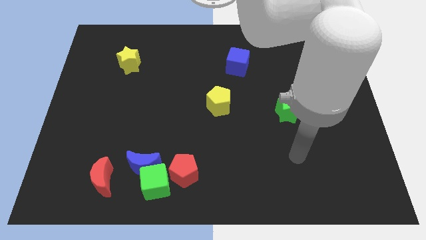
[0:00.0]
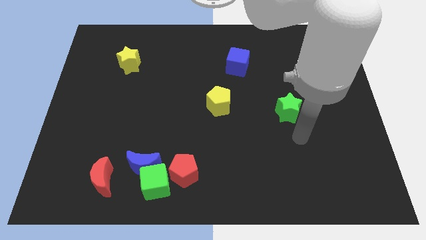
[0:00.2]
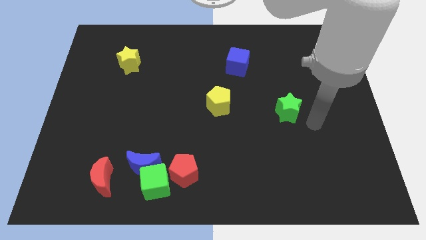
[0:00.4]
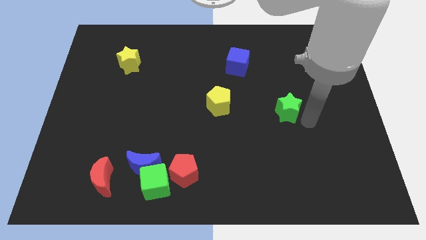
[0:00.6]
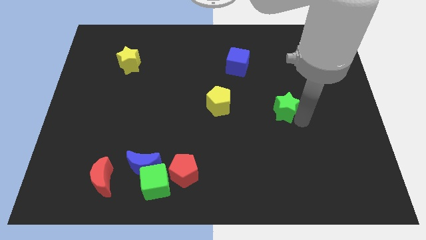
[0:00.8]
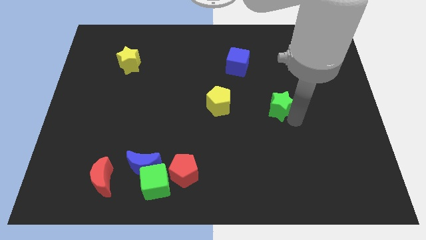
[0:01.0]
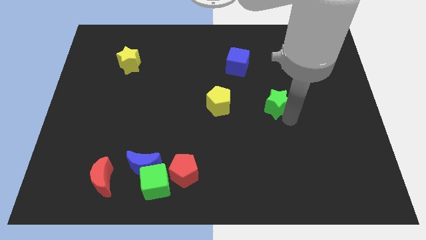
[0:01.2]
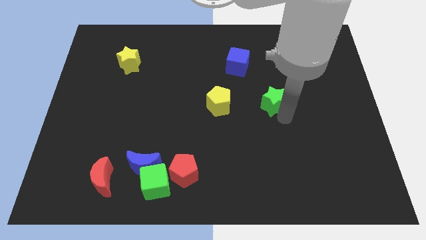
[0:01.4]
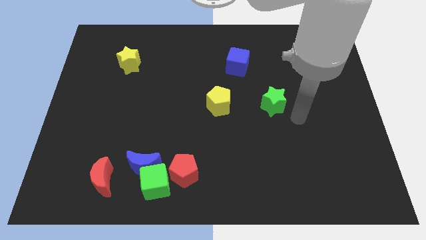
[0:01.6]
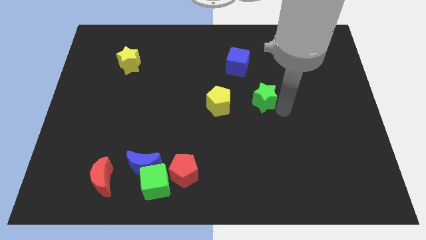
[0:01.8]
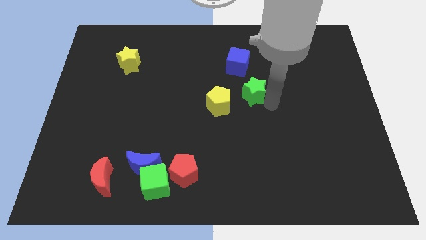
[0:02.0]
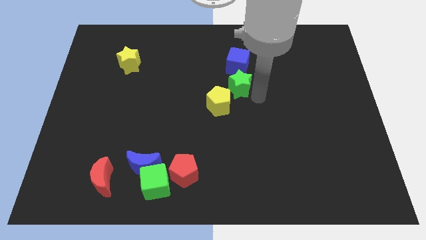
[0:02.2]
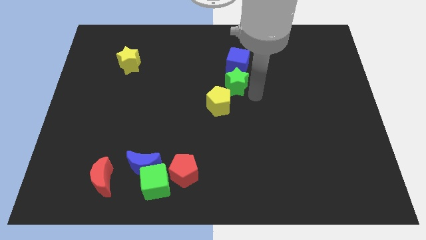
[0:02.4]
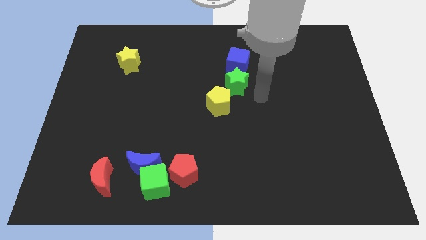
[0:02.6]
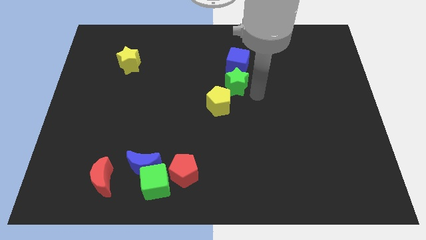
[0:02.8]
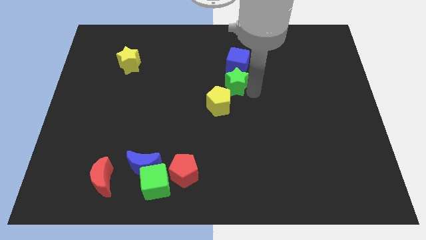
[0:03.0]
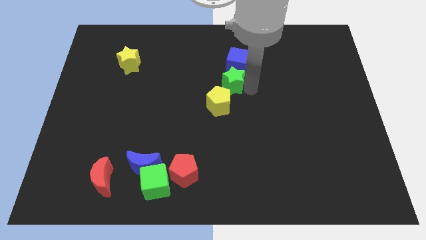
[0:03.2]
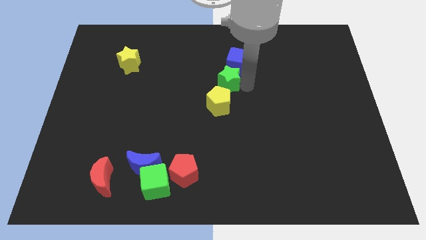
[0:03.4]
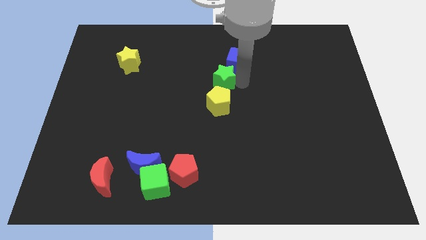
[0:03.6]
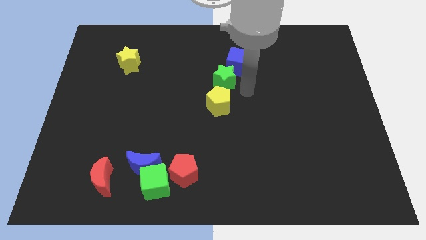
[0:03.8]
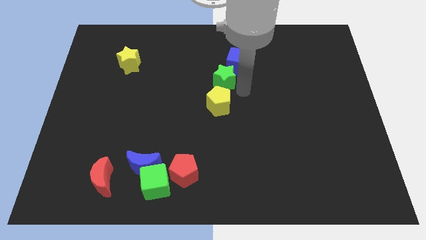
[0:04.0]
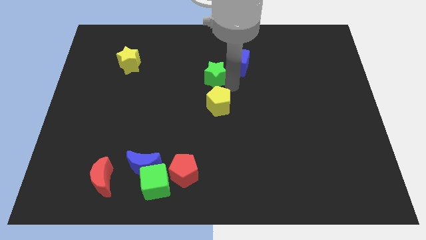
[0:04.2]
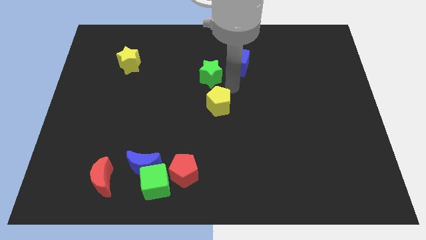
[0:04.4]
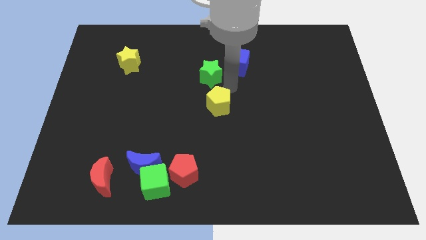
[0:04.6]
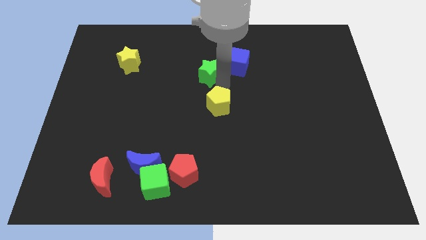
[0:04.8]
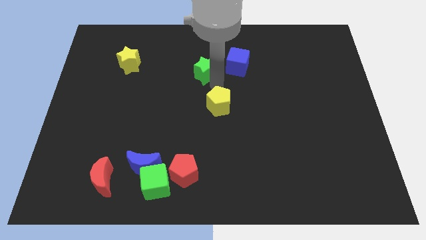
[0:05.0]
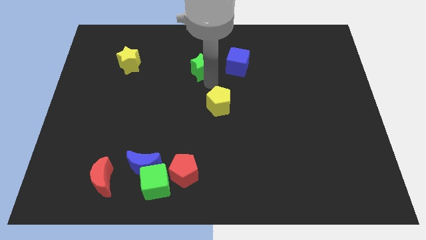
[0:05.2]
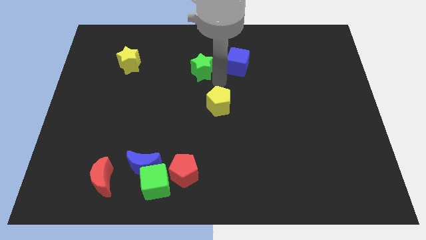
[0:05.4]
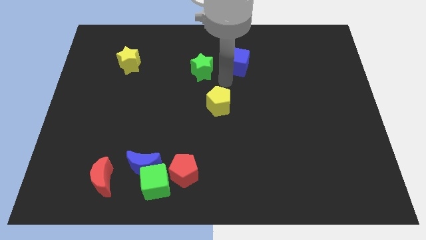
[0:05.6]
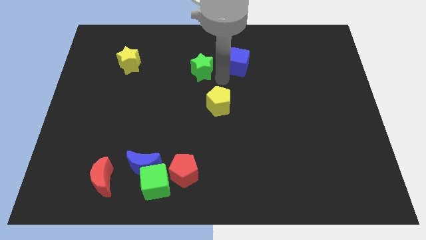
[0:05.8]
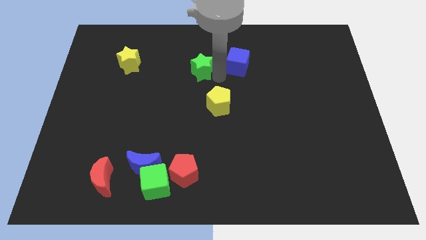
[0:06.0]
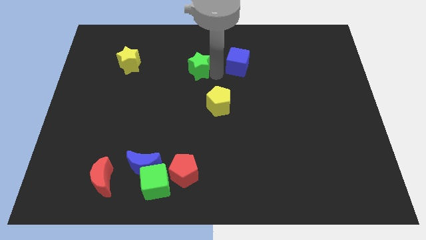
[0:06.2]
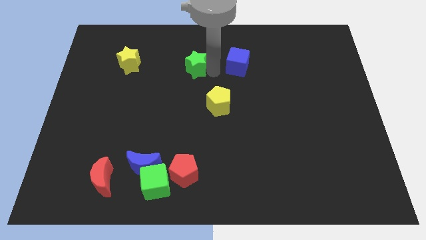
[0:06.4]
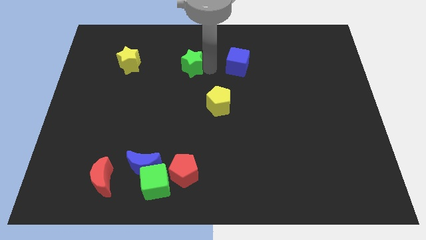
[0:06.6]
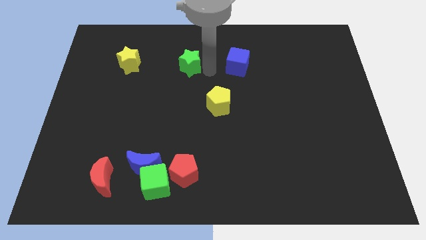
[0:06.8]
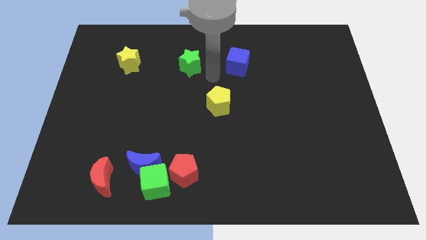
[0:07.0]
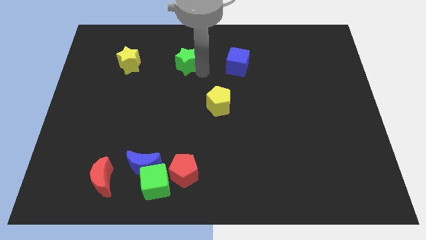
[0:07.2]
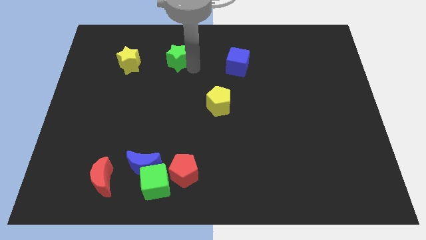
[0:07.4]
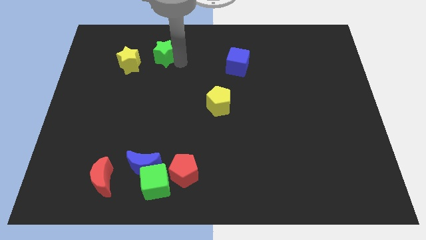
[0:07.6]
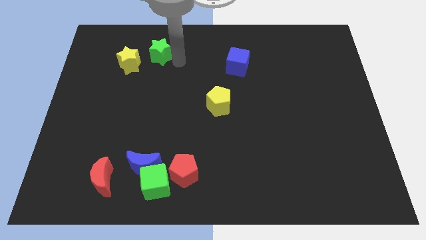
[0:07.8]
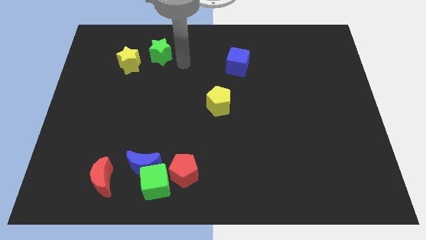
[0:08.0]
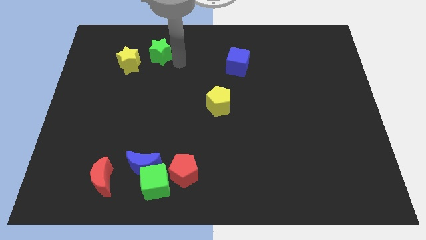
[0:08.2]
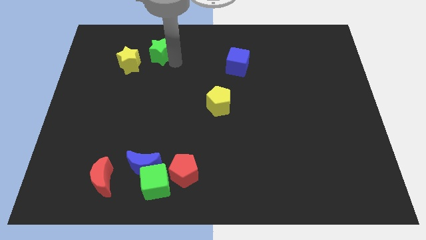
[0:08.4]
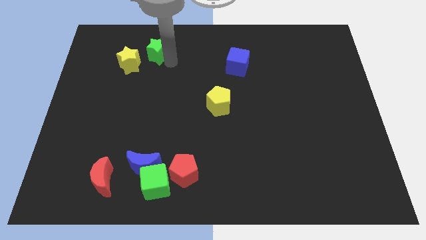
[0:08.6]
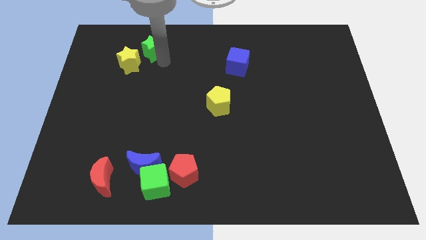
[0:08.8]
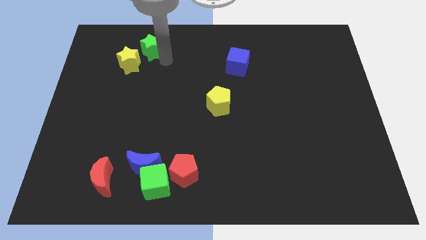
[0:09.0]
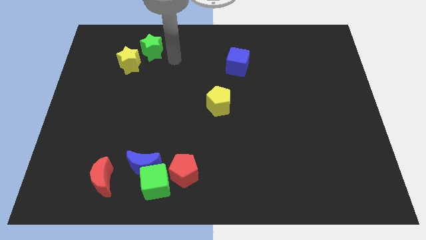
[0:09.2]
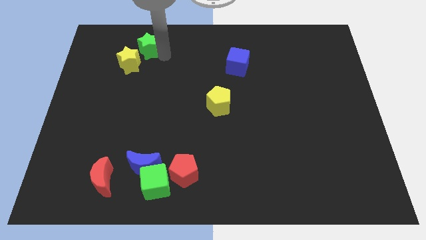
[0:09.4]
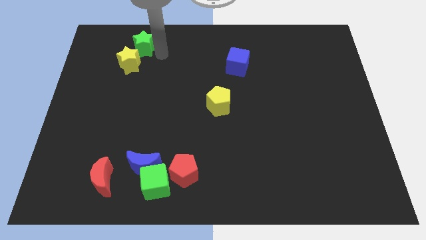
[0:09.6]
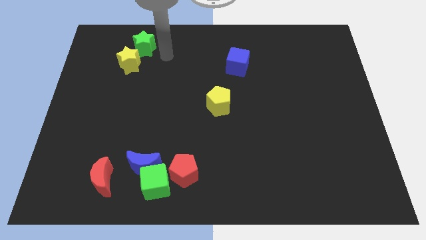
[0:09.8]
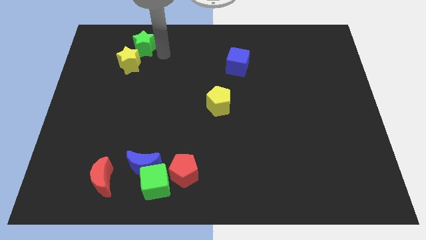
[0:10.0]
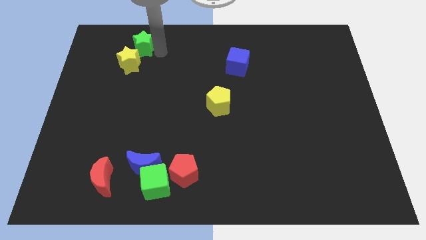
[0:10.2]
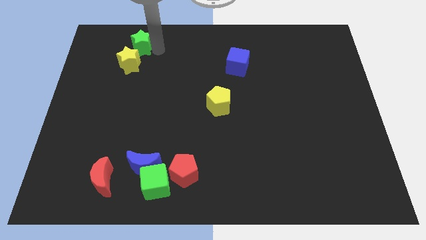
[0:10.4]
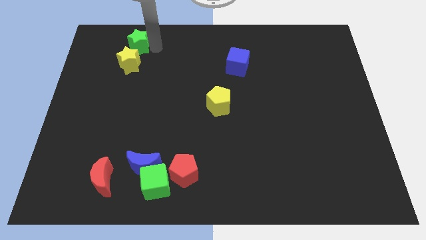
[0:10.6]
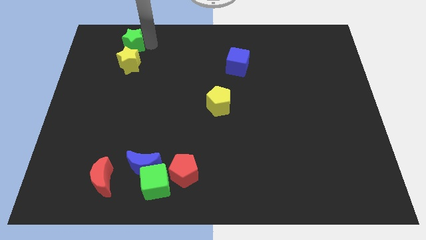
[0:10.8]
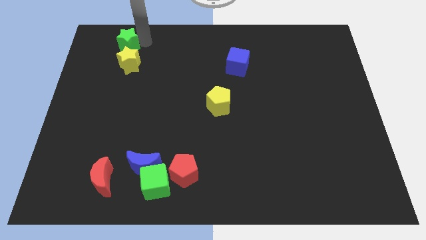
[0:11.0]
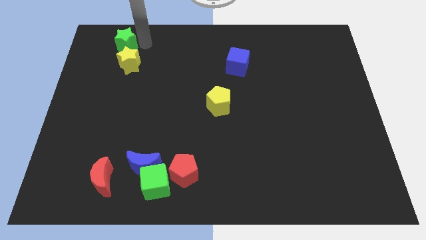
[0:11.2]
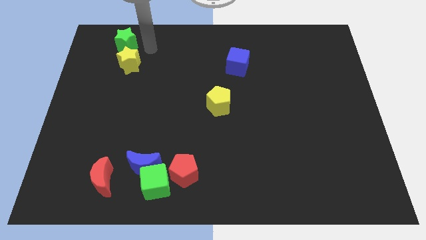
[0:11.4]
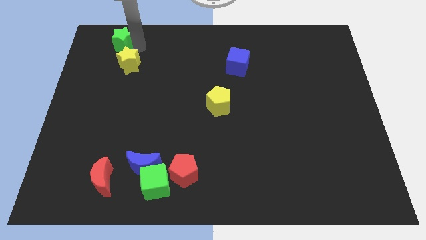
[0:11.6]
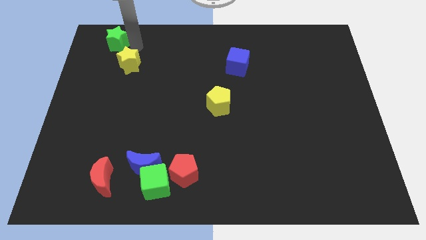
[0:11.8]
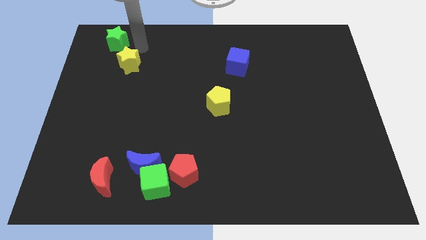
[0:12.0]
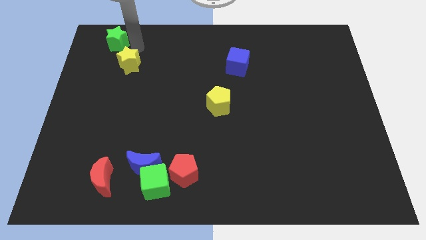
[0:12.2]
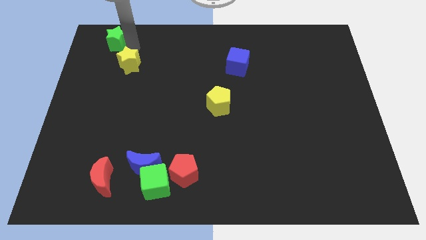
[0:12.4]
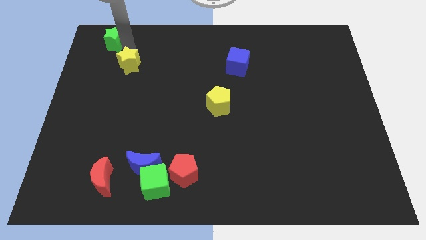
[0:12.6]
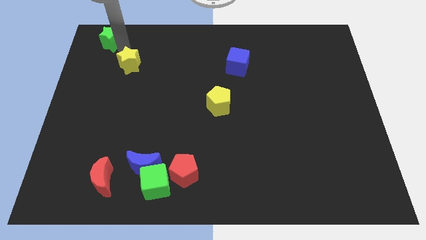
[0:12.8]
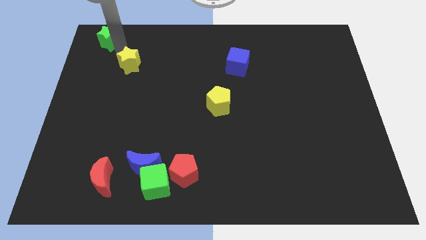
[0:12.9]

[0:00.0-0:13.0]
slide the green star to the top left corner
